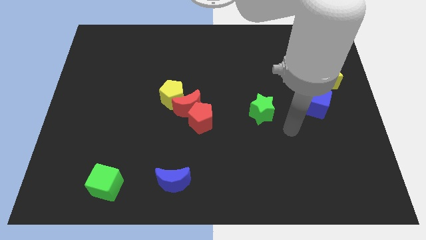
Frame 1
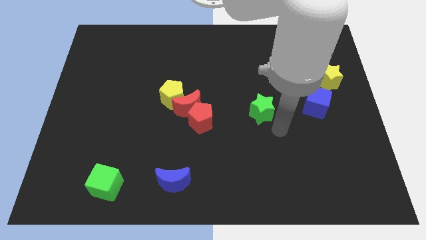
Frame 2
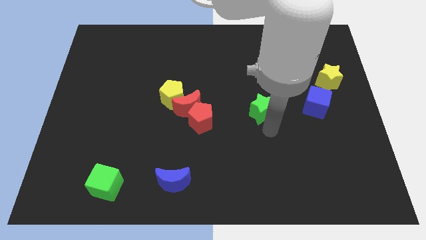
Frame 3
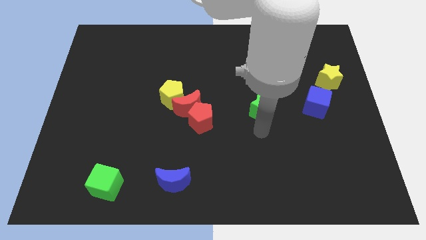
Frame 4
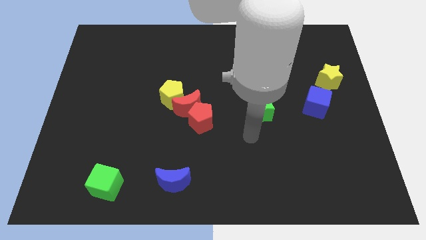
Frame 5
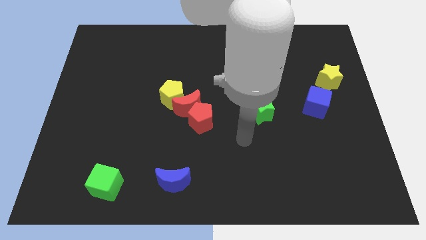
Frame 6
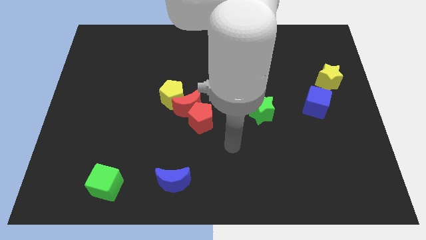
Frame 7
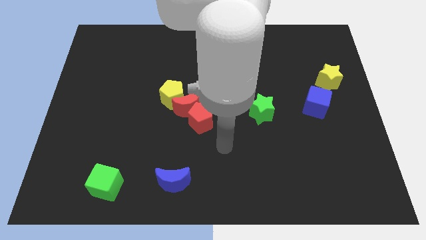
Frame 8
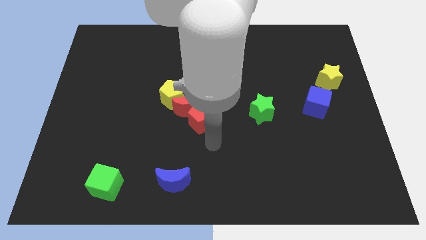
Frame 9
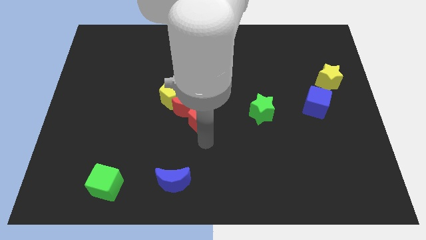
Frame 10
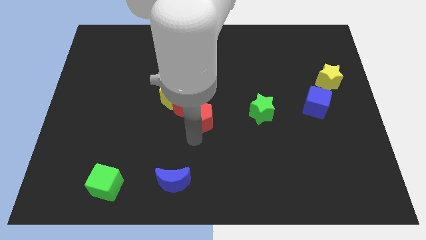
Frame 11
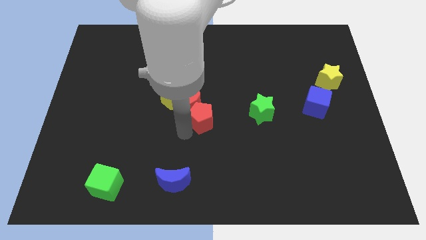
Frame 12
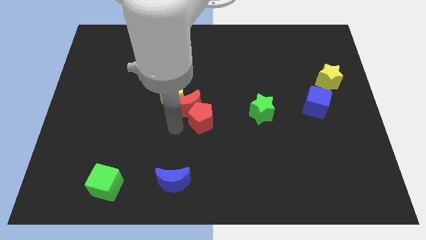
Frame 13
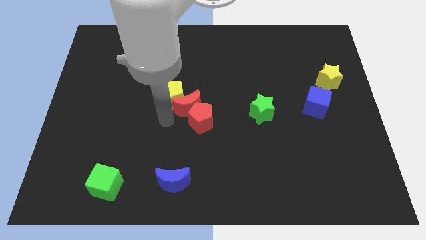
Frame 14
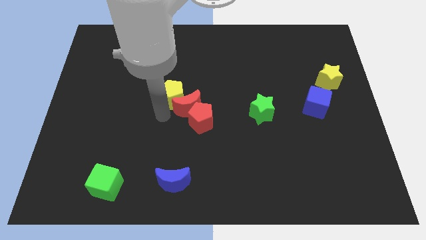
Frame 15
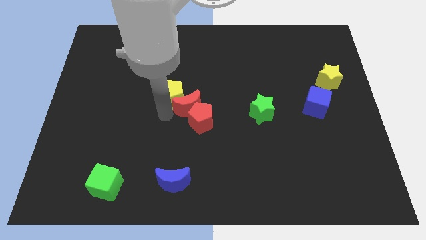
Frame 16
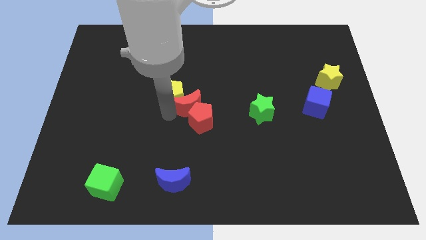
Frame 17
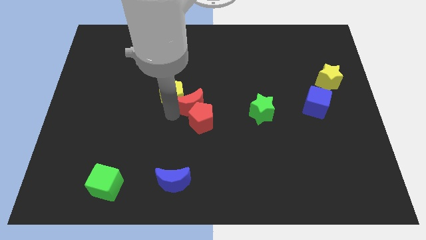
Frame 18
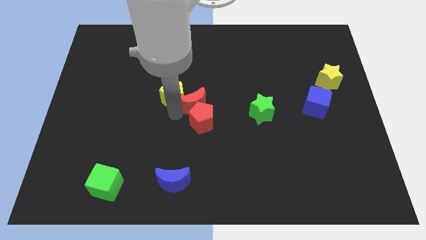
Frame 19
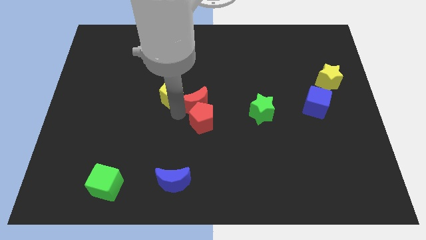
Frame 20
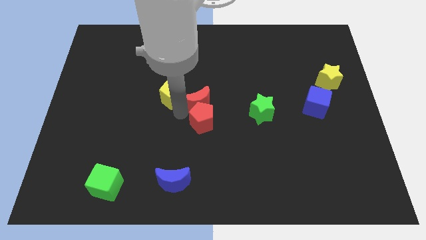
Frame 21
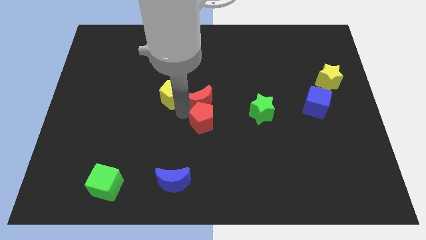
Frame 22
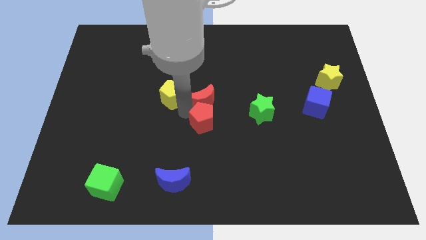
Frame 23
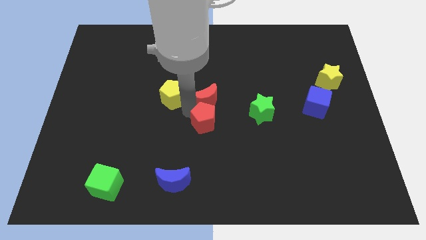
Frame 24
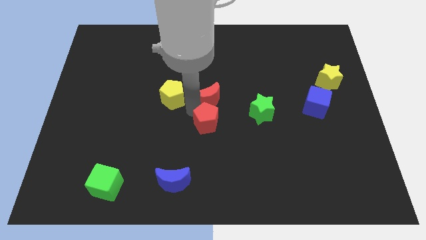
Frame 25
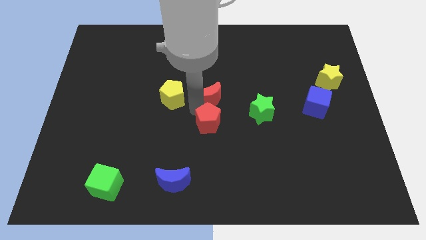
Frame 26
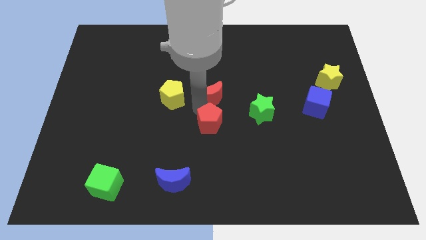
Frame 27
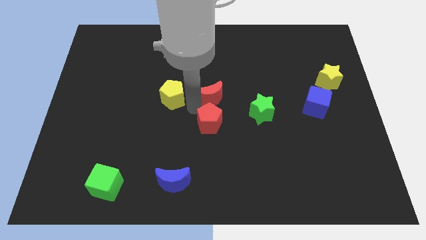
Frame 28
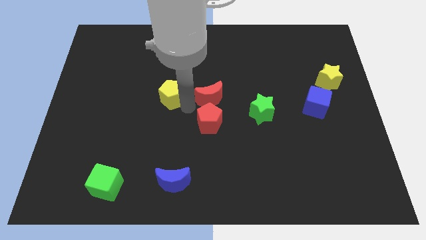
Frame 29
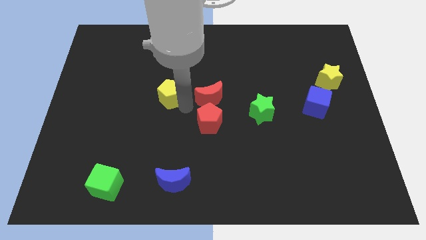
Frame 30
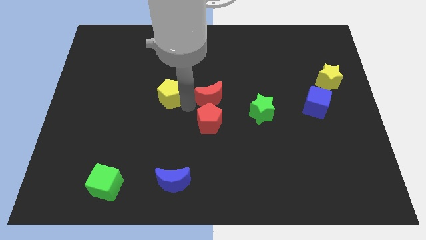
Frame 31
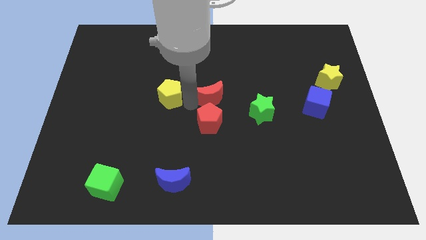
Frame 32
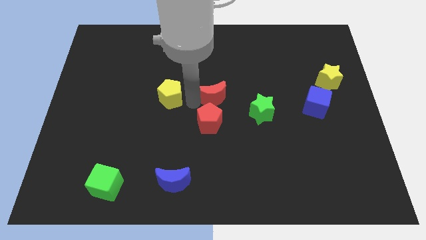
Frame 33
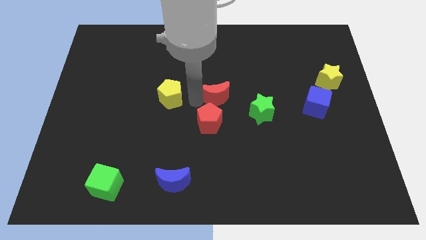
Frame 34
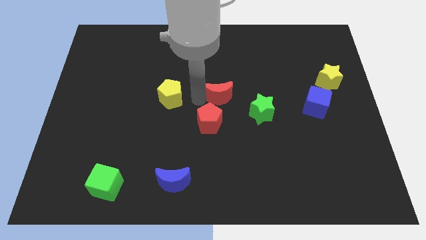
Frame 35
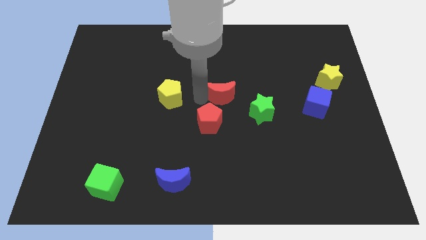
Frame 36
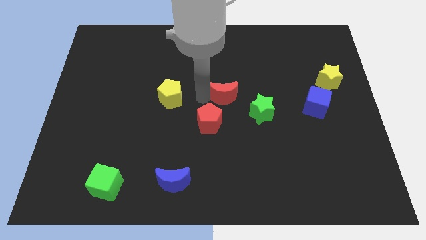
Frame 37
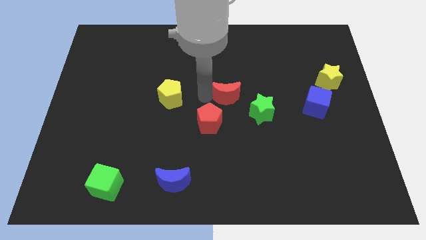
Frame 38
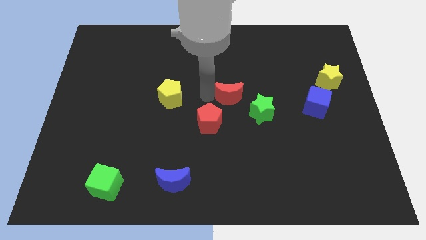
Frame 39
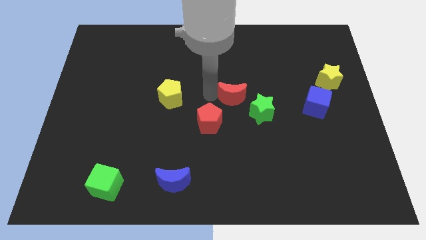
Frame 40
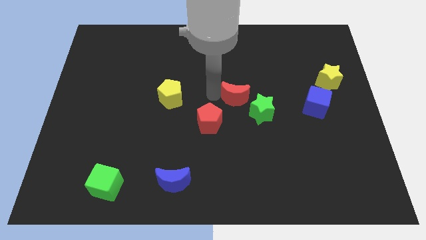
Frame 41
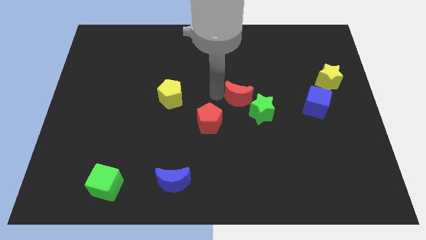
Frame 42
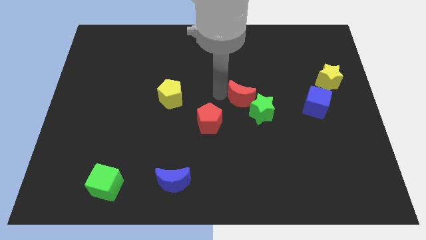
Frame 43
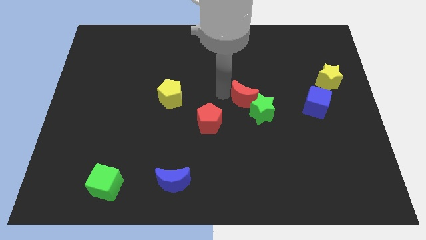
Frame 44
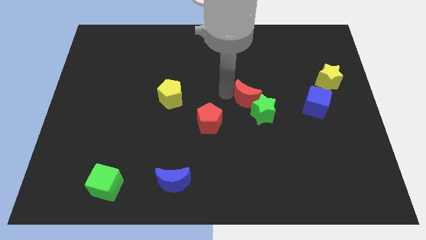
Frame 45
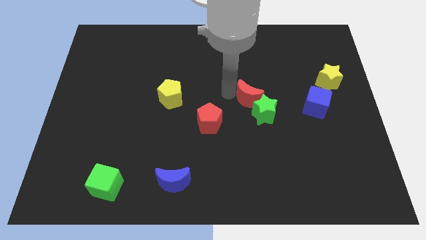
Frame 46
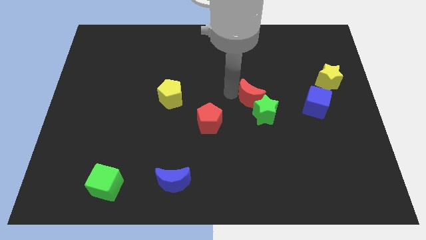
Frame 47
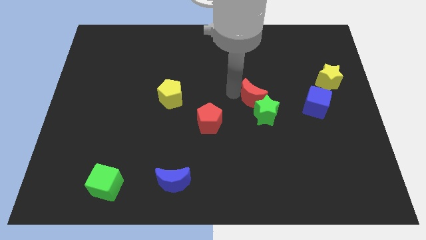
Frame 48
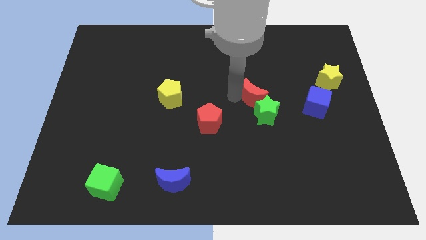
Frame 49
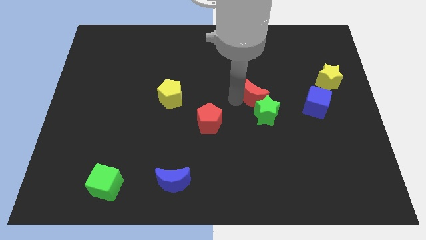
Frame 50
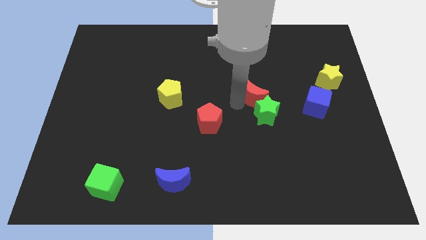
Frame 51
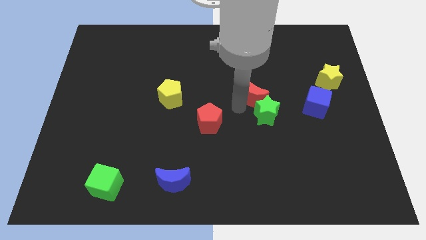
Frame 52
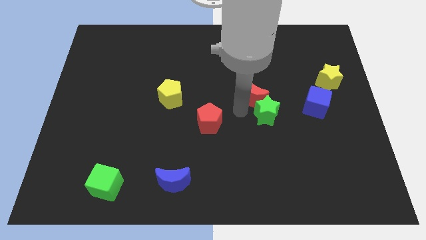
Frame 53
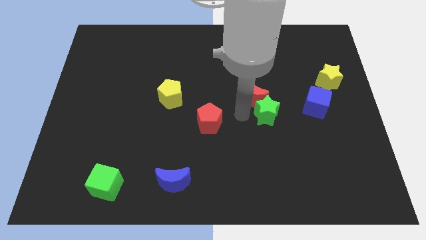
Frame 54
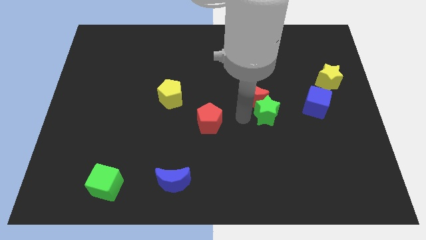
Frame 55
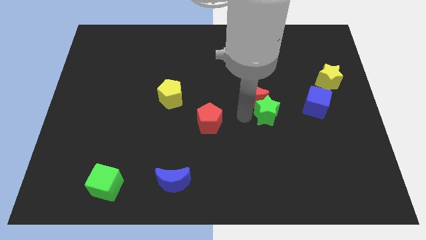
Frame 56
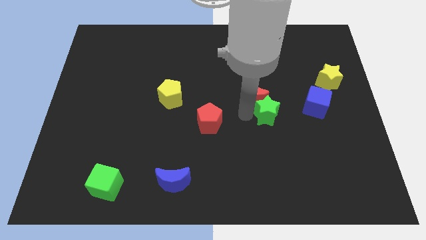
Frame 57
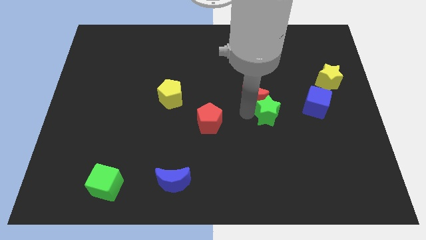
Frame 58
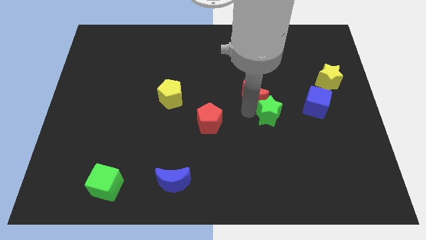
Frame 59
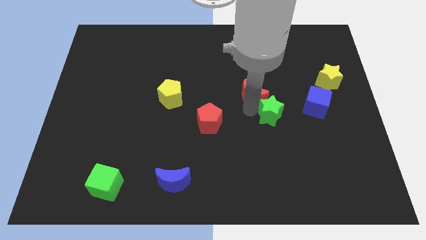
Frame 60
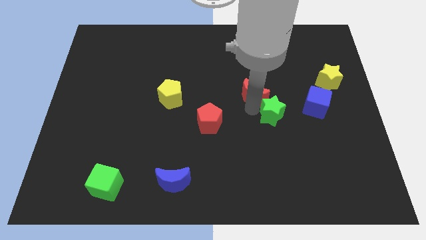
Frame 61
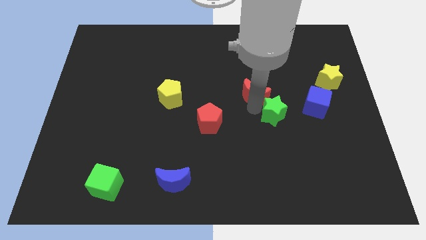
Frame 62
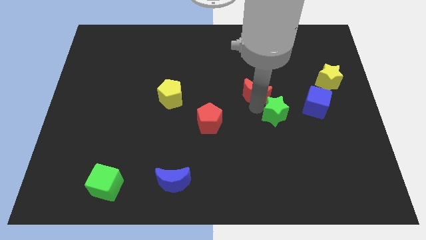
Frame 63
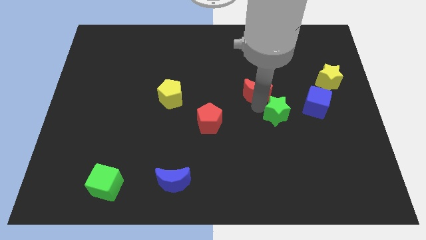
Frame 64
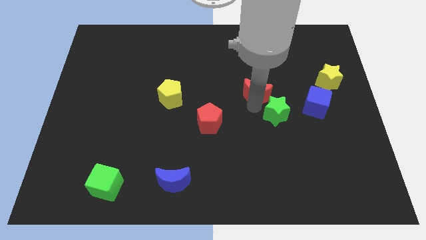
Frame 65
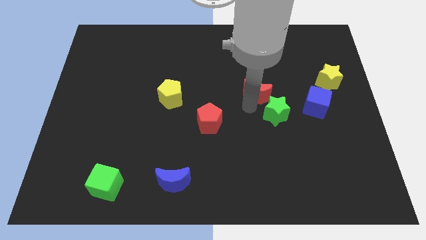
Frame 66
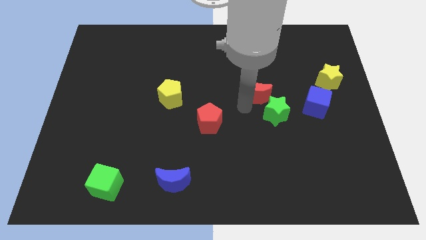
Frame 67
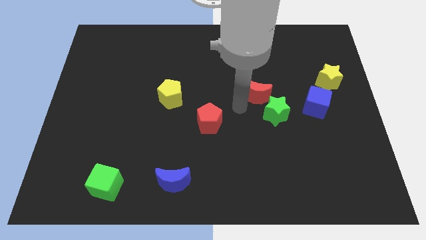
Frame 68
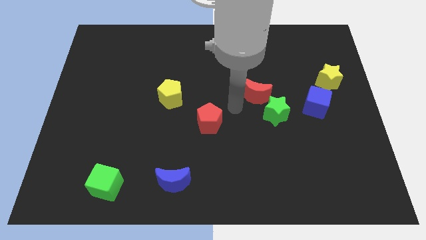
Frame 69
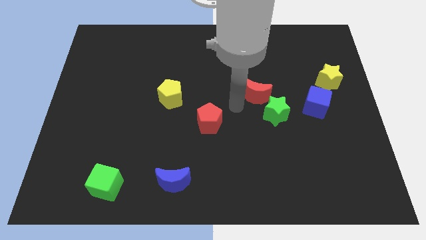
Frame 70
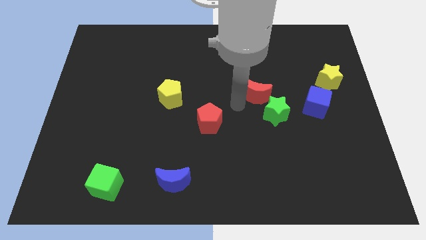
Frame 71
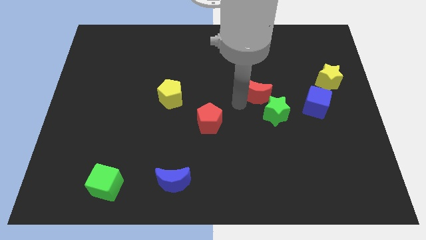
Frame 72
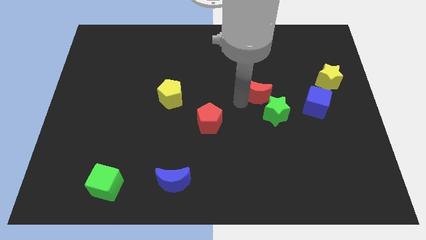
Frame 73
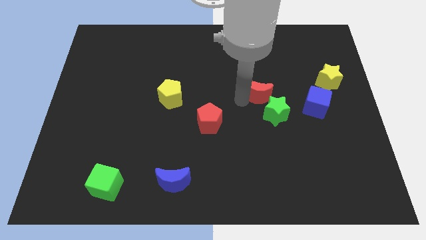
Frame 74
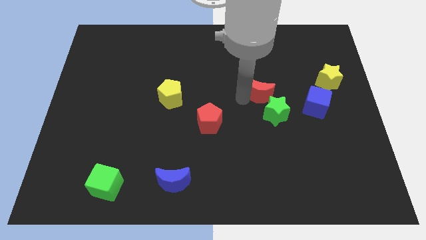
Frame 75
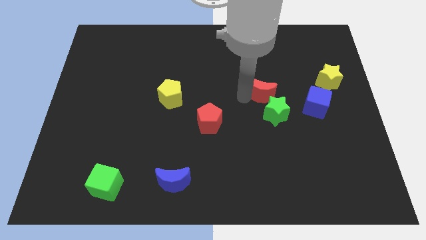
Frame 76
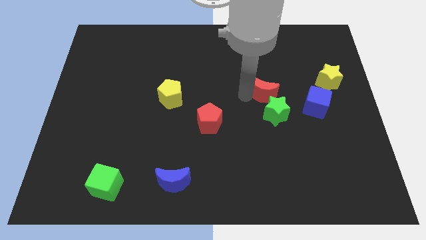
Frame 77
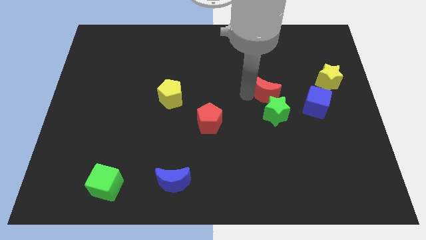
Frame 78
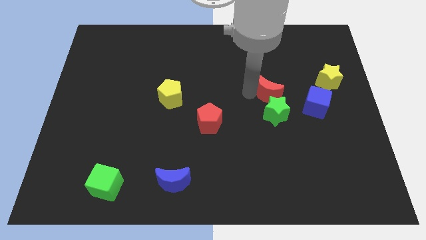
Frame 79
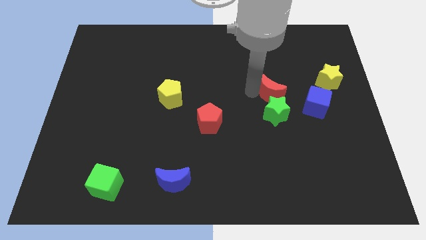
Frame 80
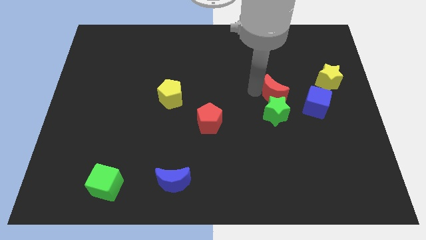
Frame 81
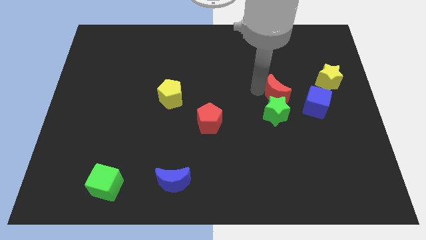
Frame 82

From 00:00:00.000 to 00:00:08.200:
put the red moon just left of the yellow star
